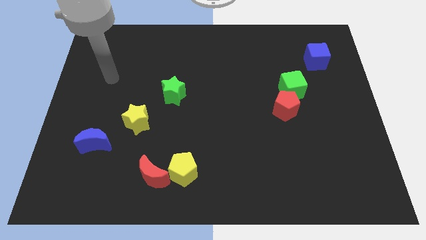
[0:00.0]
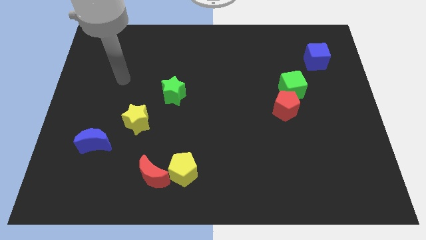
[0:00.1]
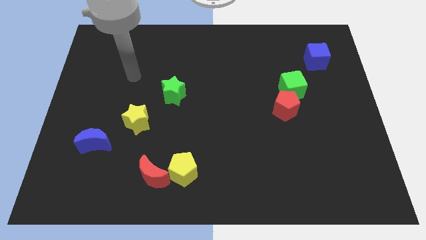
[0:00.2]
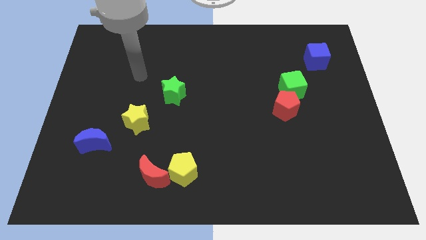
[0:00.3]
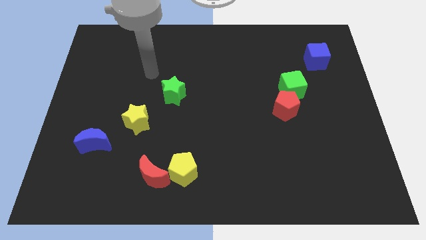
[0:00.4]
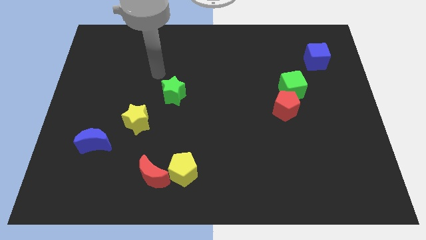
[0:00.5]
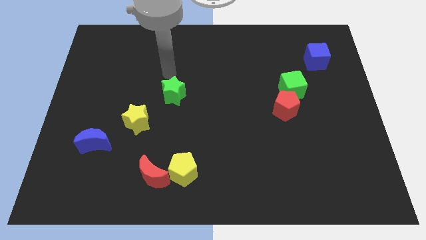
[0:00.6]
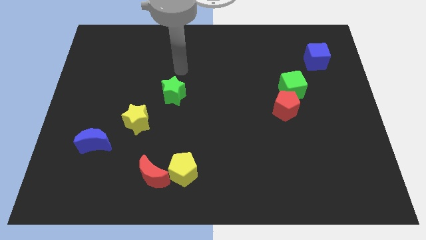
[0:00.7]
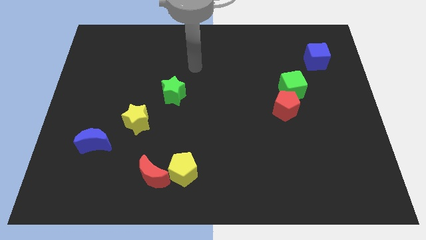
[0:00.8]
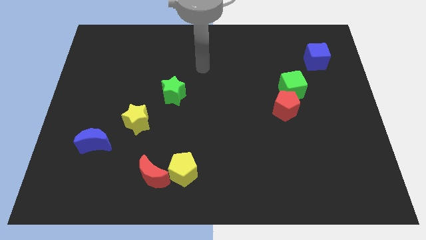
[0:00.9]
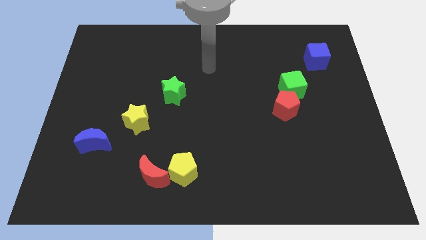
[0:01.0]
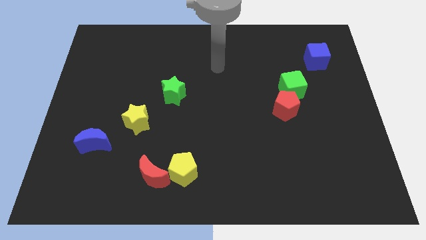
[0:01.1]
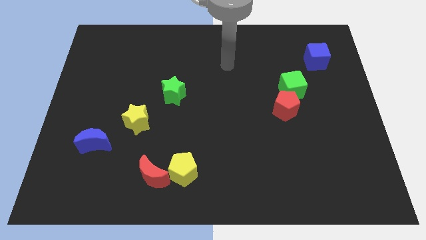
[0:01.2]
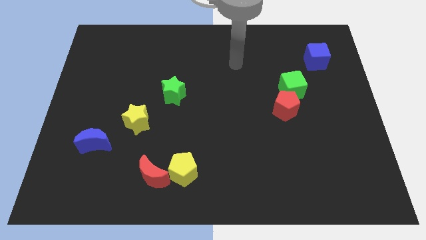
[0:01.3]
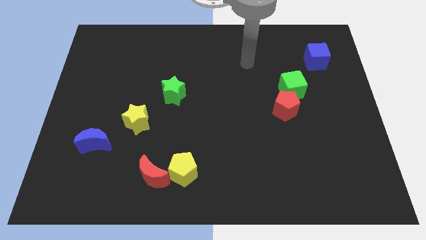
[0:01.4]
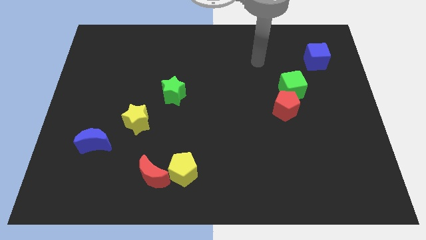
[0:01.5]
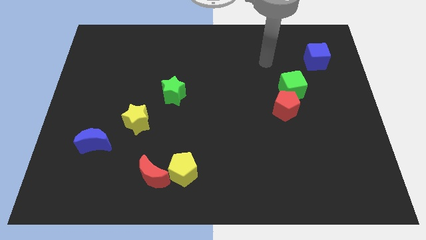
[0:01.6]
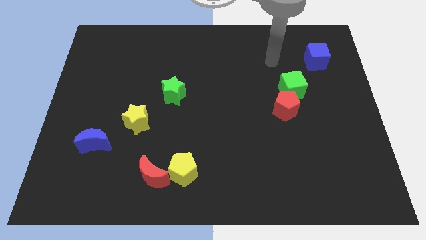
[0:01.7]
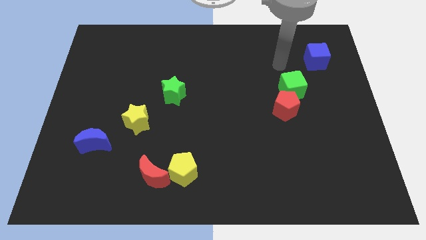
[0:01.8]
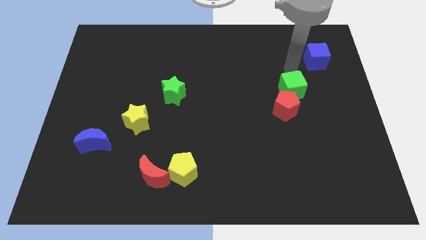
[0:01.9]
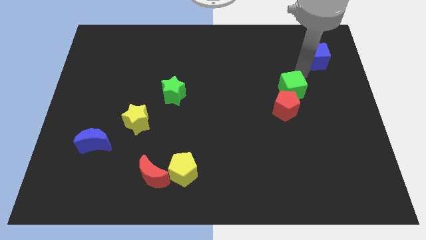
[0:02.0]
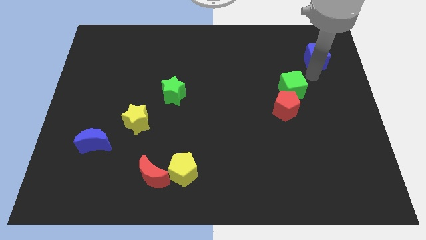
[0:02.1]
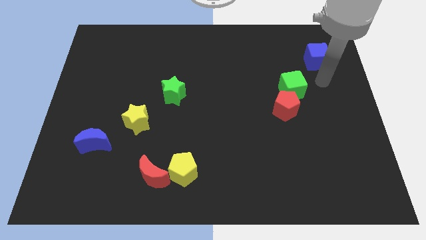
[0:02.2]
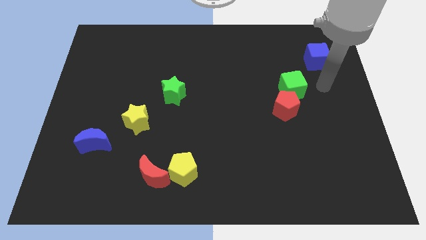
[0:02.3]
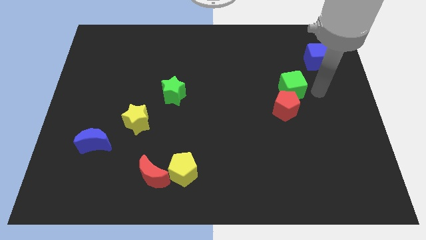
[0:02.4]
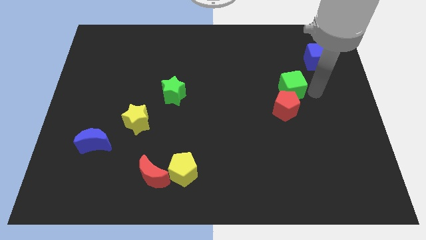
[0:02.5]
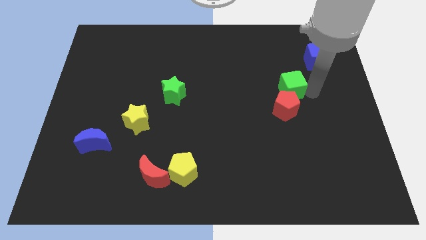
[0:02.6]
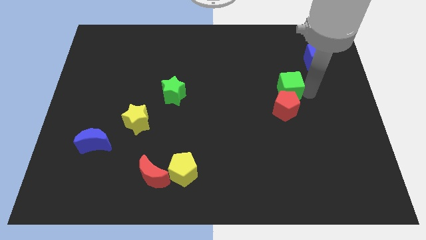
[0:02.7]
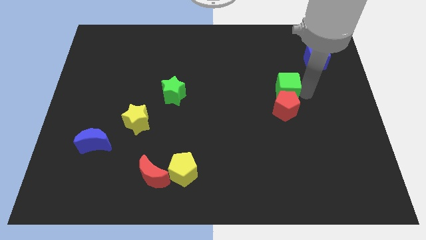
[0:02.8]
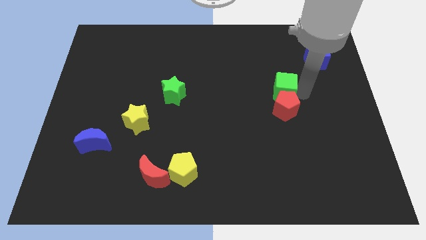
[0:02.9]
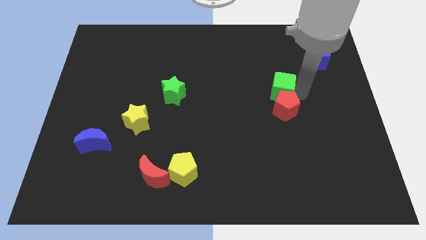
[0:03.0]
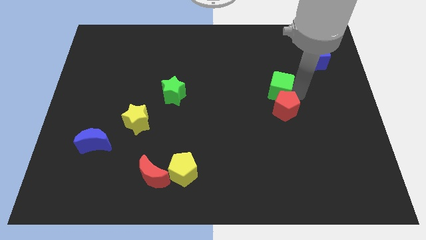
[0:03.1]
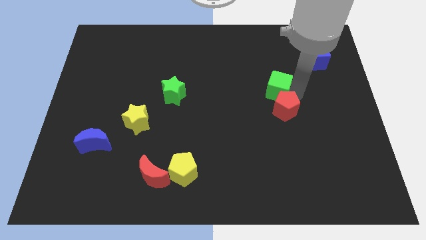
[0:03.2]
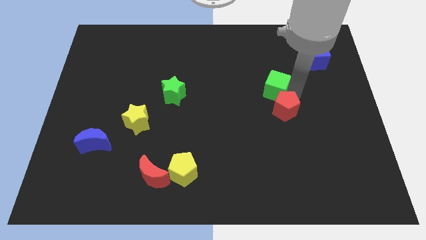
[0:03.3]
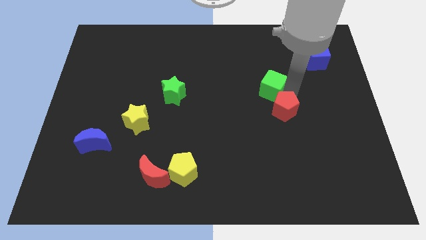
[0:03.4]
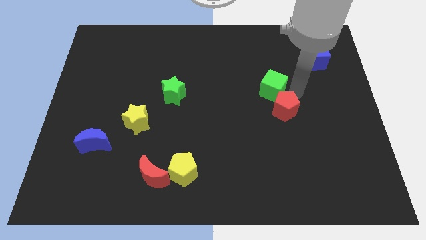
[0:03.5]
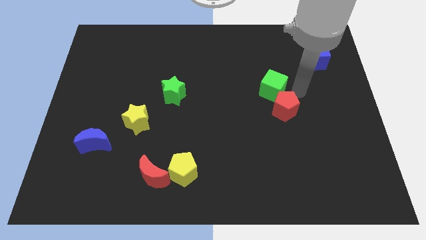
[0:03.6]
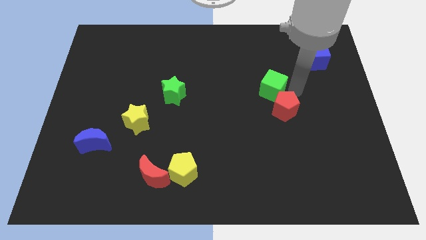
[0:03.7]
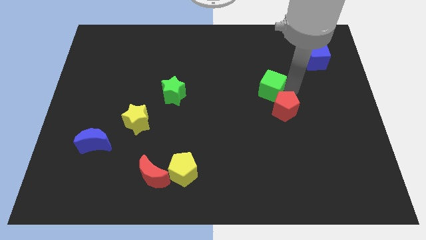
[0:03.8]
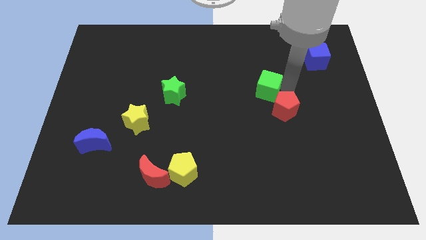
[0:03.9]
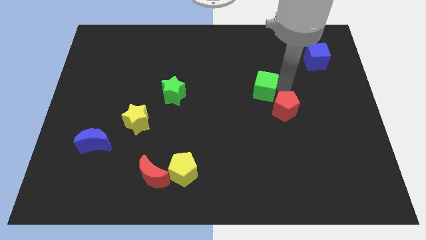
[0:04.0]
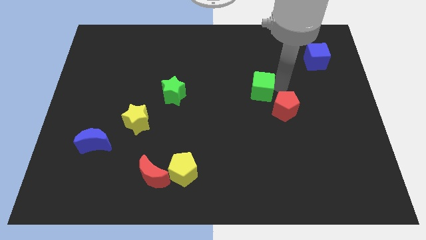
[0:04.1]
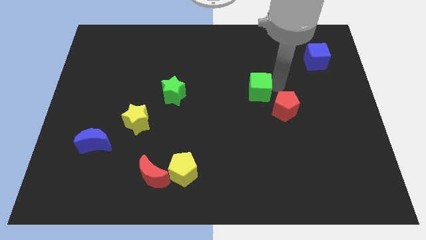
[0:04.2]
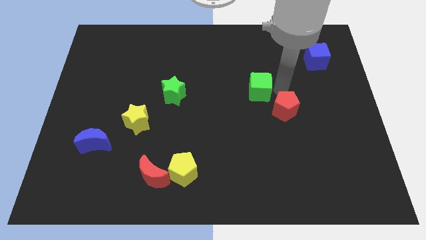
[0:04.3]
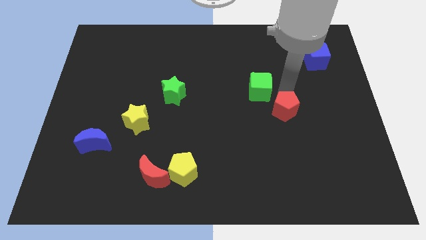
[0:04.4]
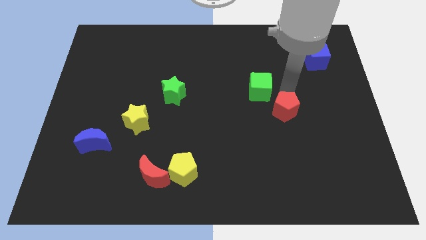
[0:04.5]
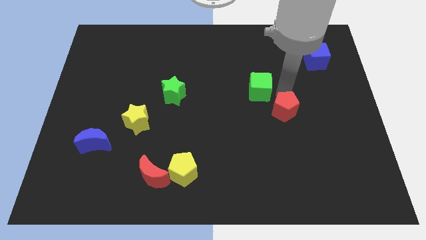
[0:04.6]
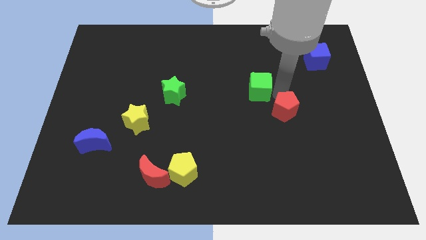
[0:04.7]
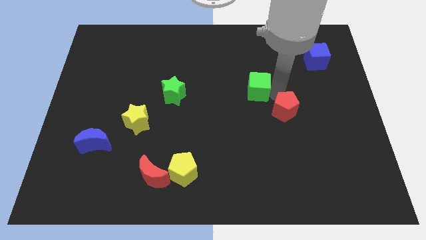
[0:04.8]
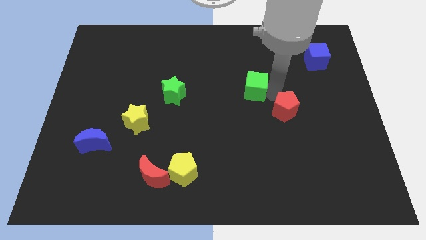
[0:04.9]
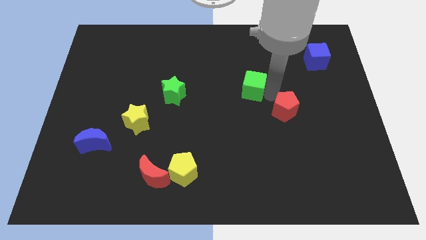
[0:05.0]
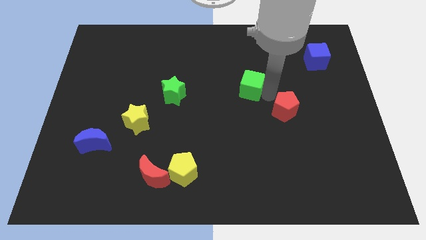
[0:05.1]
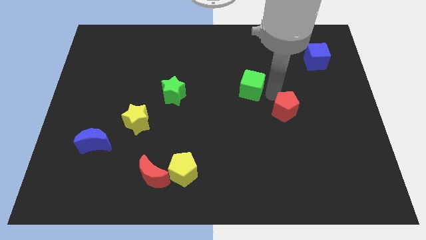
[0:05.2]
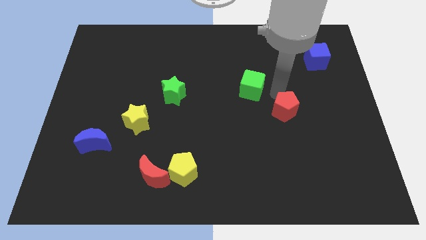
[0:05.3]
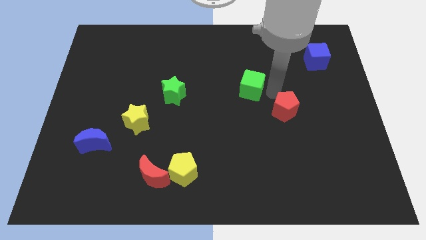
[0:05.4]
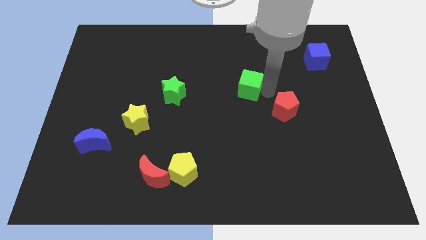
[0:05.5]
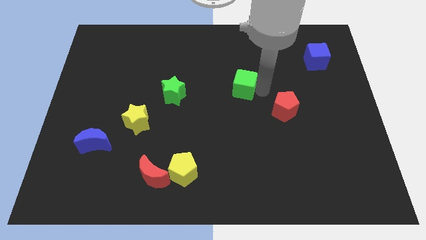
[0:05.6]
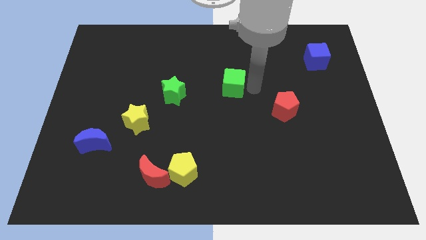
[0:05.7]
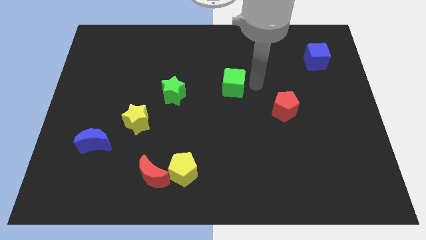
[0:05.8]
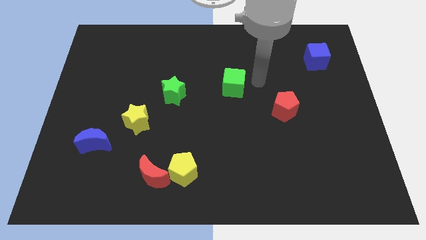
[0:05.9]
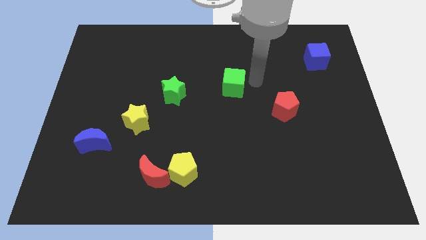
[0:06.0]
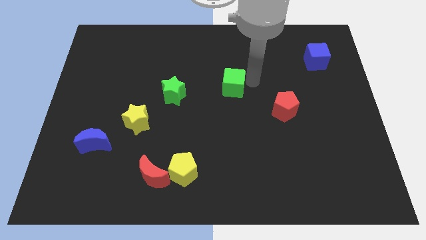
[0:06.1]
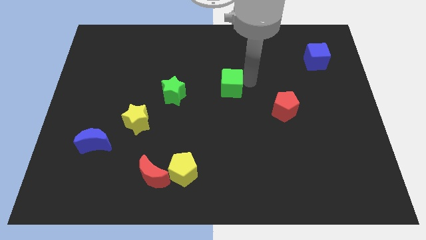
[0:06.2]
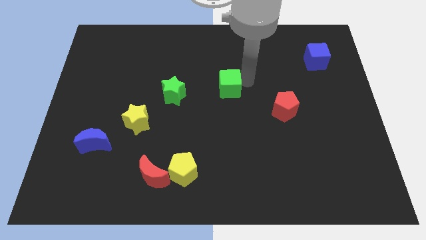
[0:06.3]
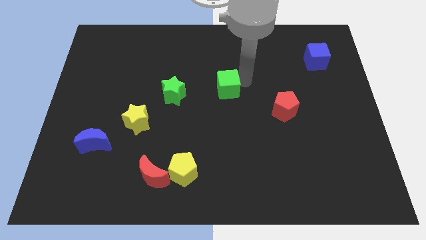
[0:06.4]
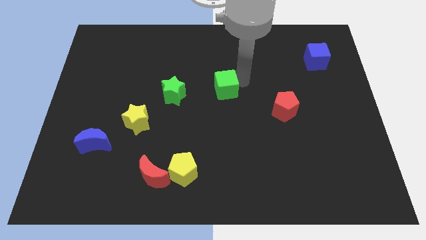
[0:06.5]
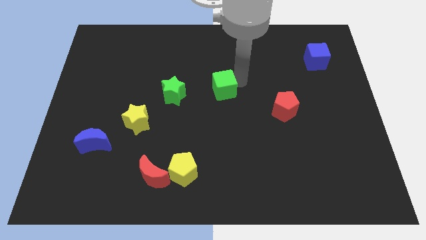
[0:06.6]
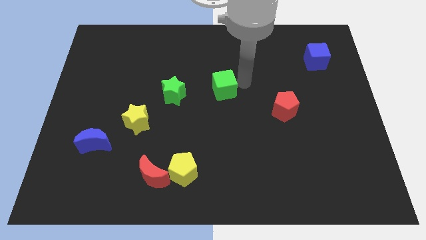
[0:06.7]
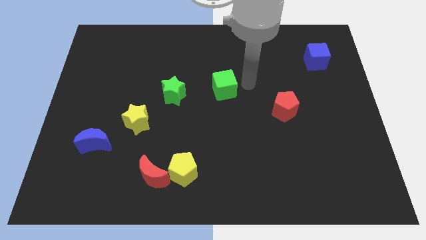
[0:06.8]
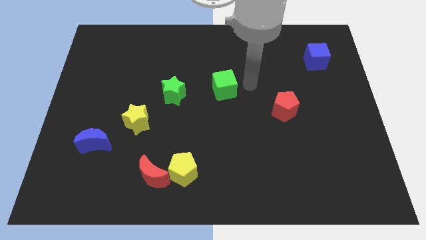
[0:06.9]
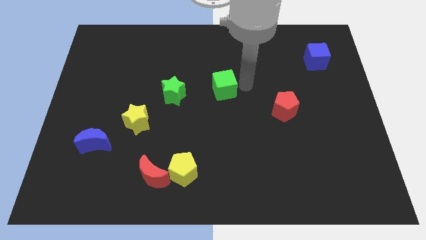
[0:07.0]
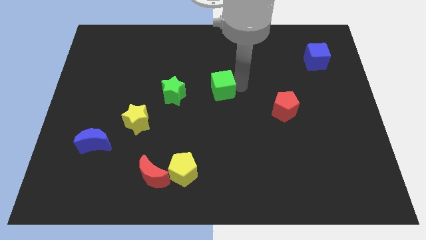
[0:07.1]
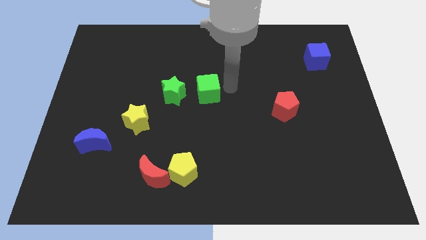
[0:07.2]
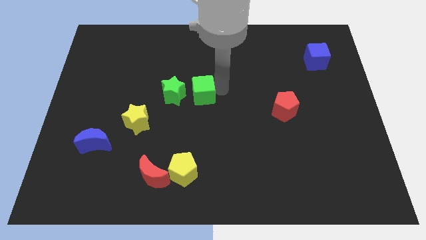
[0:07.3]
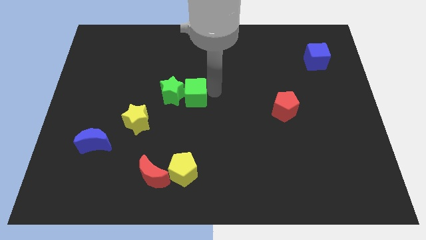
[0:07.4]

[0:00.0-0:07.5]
move the green cube close to the green star
